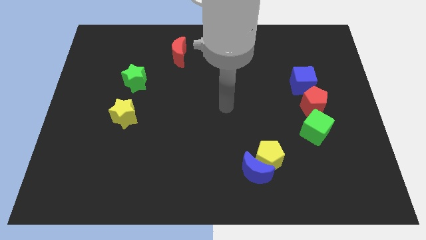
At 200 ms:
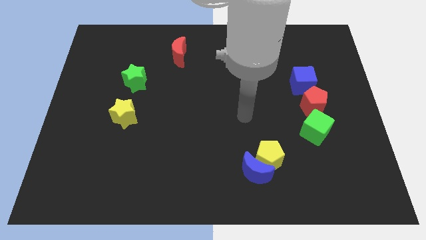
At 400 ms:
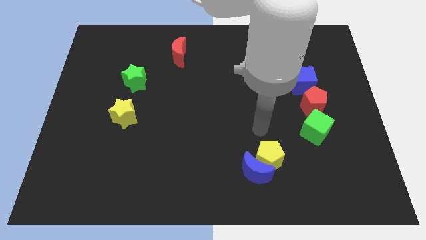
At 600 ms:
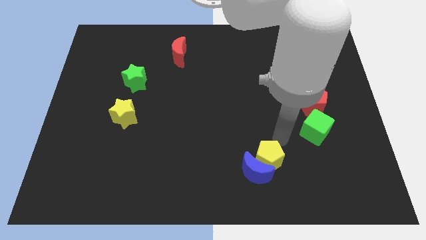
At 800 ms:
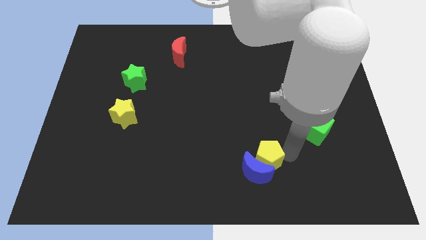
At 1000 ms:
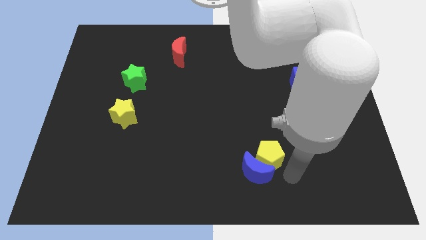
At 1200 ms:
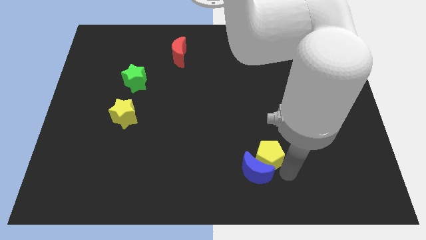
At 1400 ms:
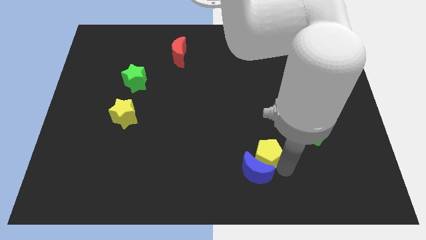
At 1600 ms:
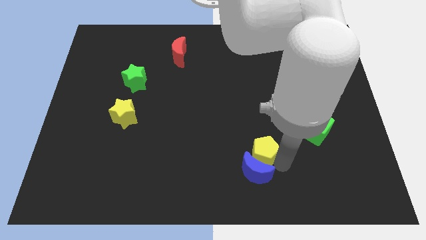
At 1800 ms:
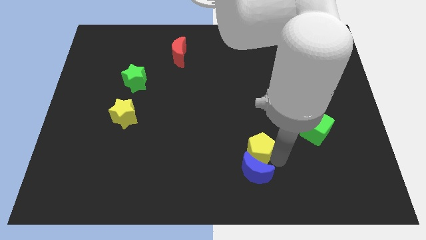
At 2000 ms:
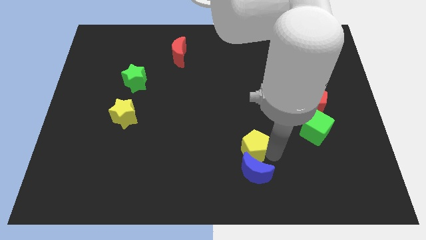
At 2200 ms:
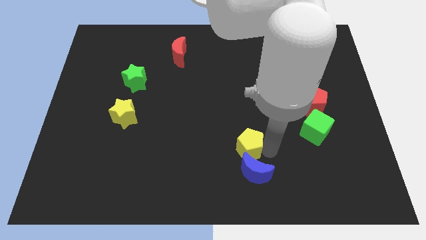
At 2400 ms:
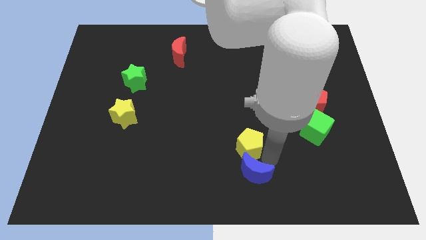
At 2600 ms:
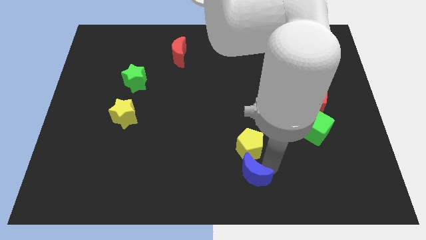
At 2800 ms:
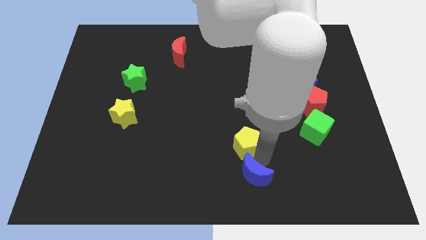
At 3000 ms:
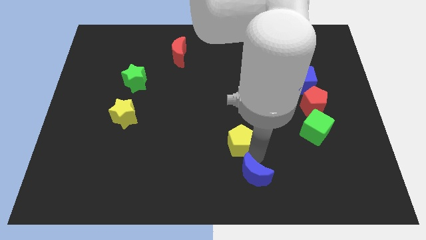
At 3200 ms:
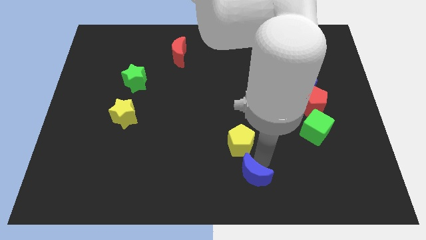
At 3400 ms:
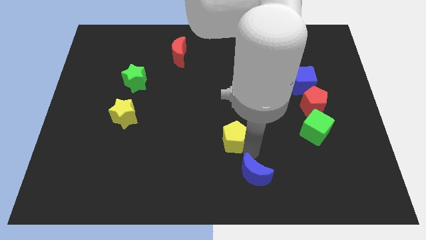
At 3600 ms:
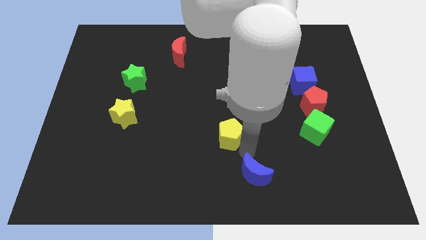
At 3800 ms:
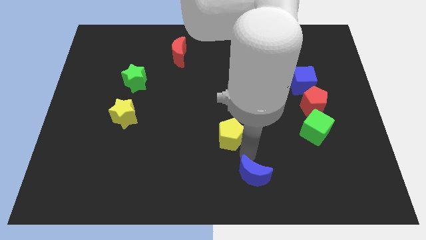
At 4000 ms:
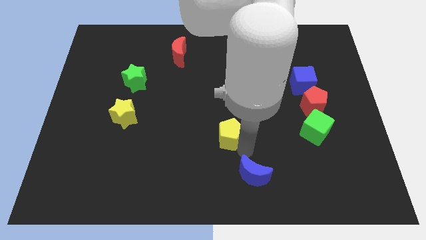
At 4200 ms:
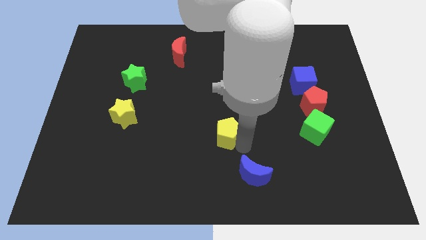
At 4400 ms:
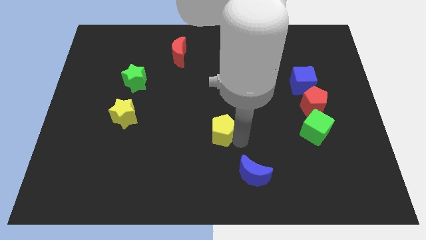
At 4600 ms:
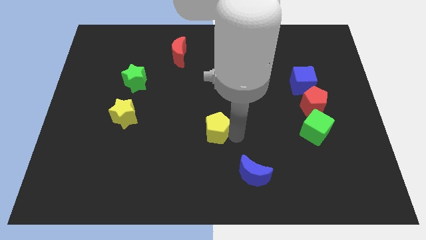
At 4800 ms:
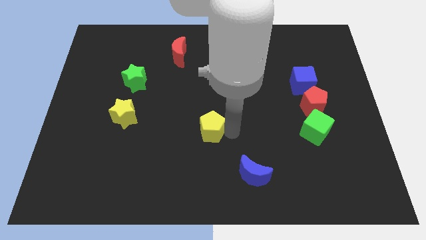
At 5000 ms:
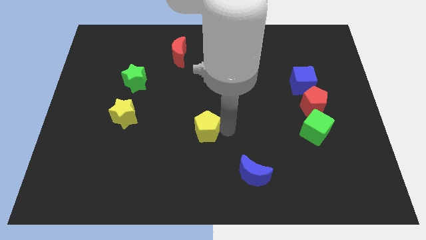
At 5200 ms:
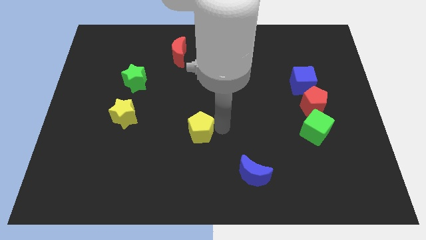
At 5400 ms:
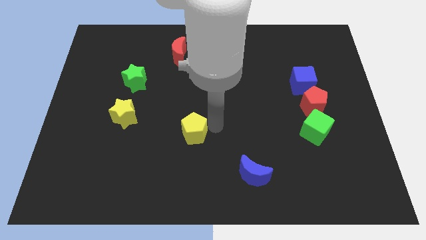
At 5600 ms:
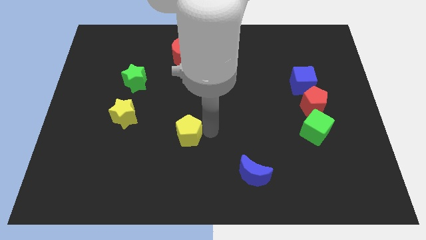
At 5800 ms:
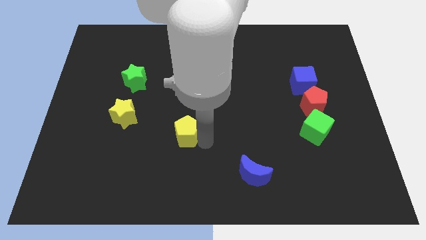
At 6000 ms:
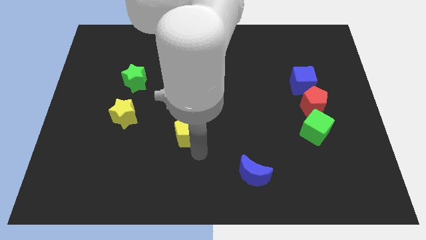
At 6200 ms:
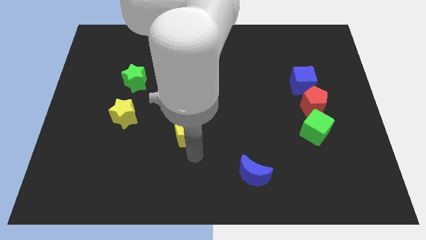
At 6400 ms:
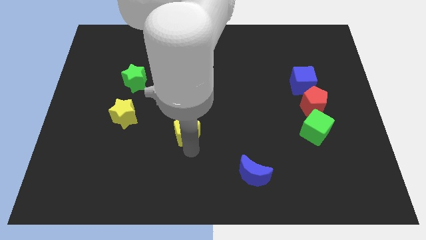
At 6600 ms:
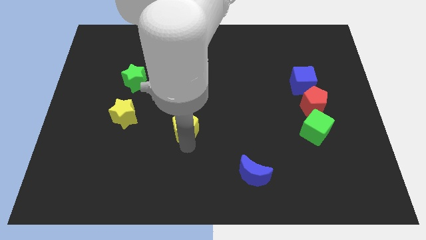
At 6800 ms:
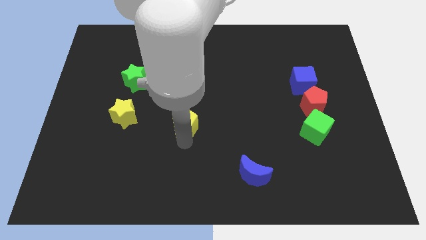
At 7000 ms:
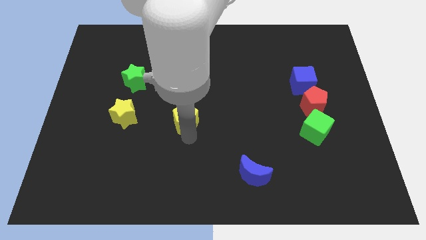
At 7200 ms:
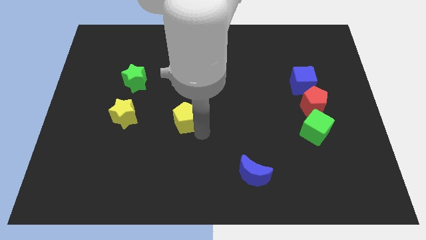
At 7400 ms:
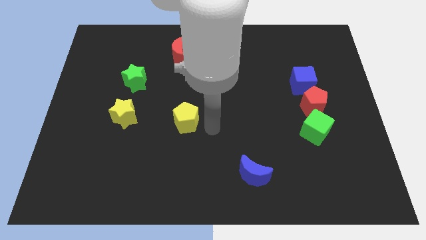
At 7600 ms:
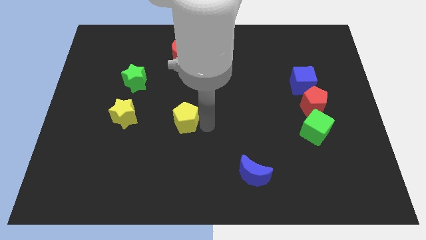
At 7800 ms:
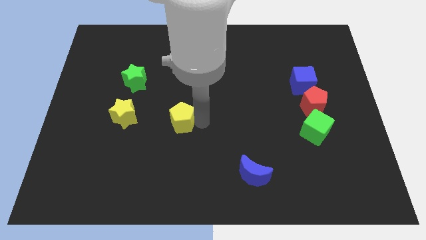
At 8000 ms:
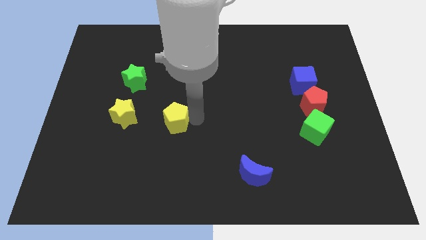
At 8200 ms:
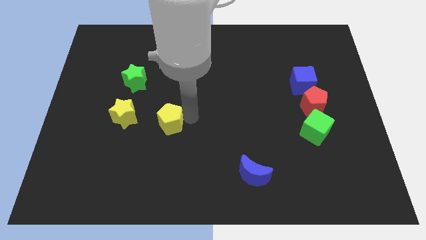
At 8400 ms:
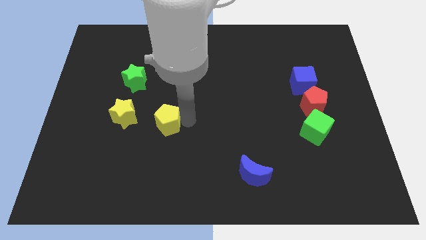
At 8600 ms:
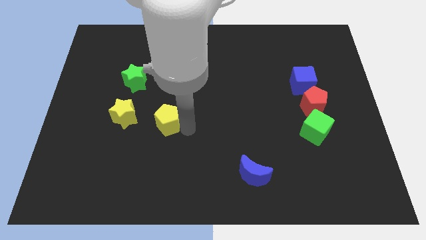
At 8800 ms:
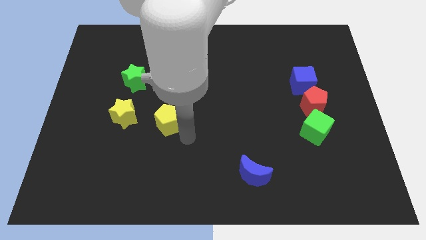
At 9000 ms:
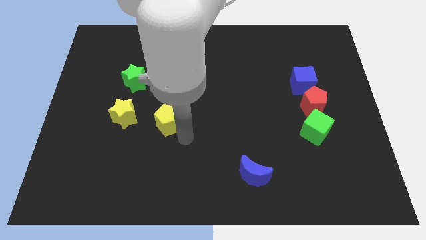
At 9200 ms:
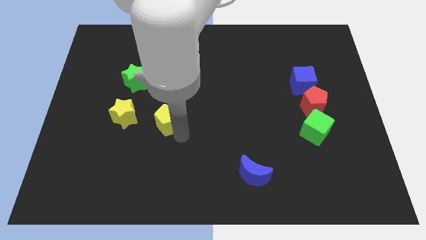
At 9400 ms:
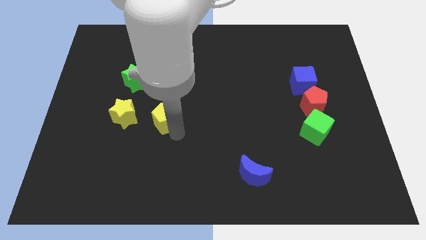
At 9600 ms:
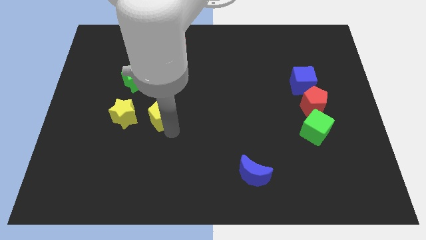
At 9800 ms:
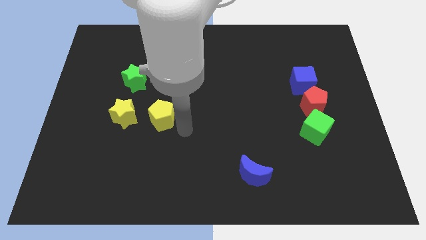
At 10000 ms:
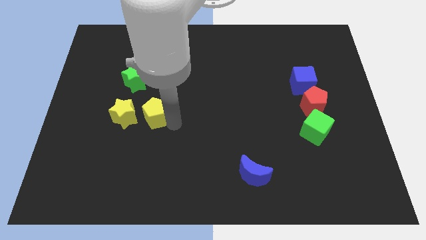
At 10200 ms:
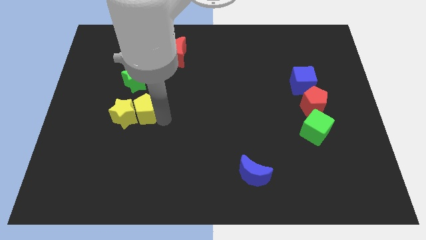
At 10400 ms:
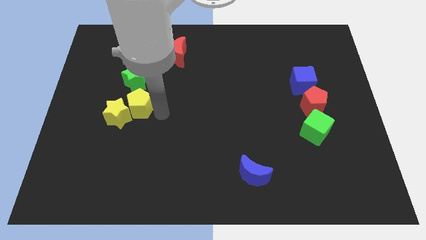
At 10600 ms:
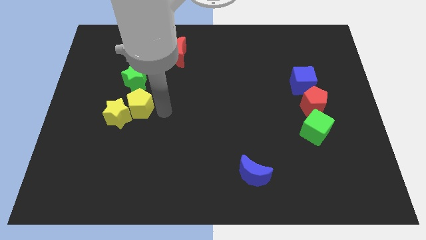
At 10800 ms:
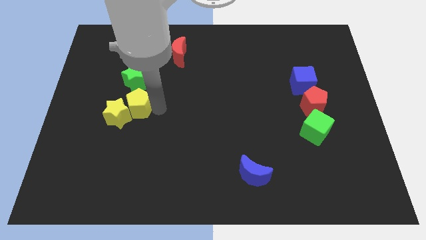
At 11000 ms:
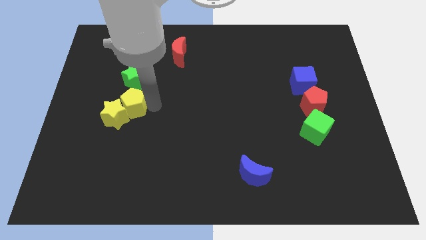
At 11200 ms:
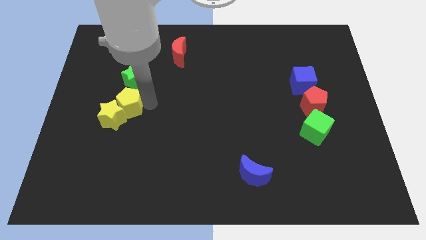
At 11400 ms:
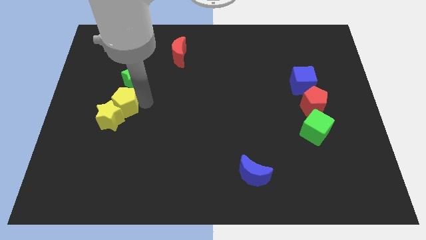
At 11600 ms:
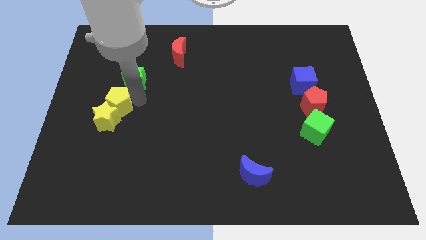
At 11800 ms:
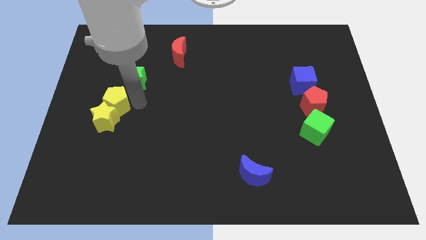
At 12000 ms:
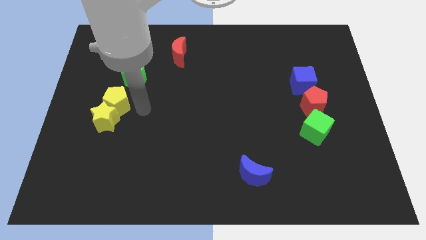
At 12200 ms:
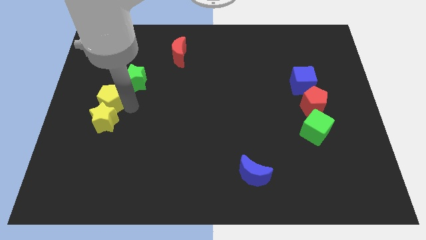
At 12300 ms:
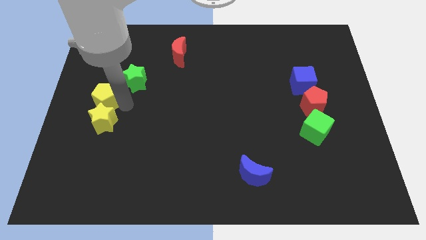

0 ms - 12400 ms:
push the yellow pentagon to the left side of the board
